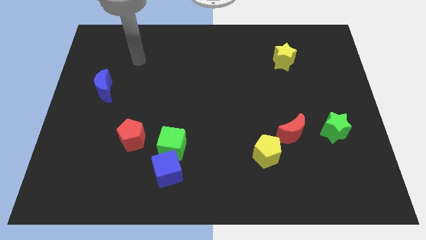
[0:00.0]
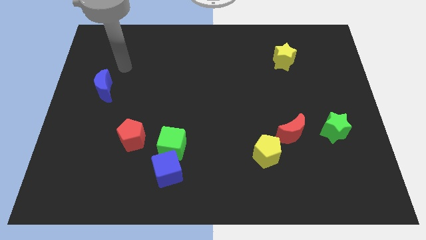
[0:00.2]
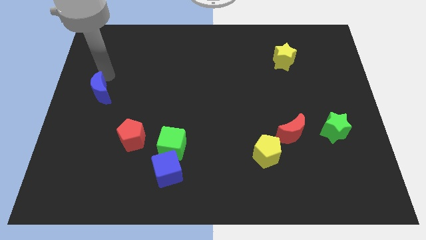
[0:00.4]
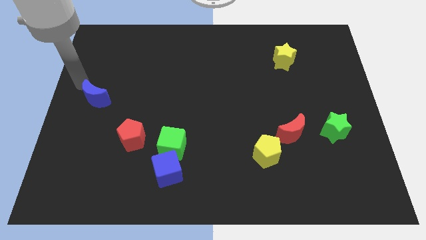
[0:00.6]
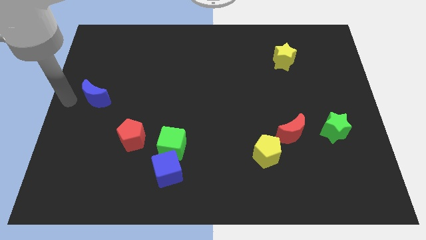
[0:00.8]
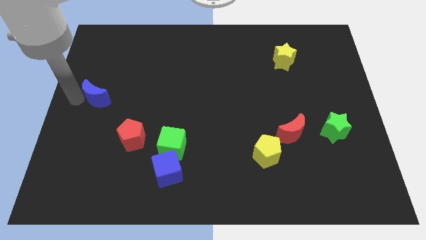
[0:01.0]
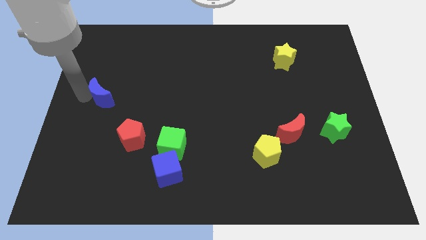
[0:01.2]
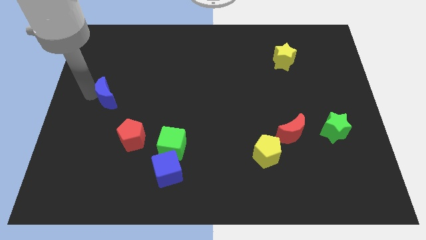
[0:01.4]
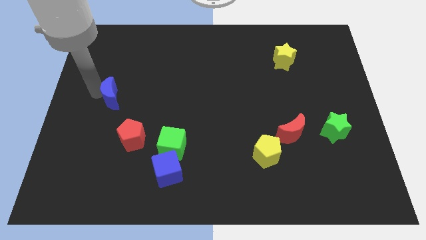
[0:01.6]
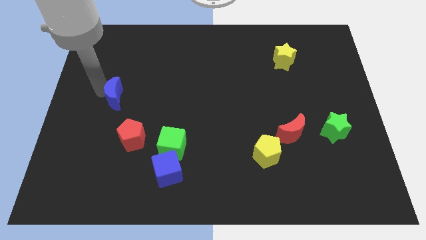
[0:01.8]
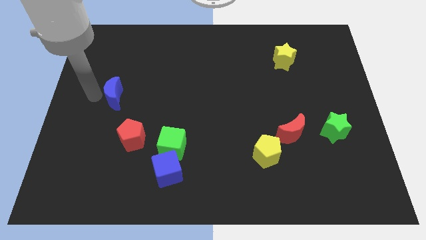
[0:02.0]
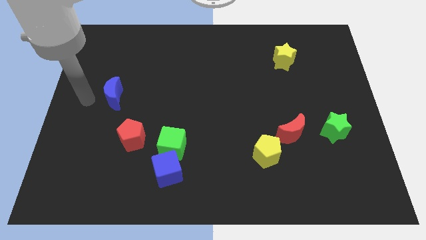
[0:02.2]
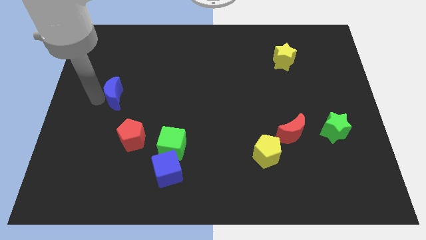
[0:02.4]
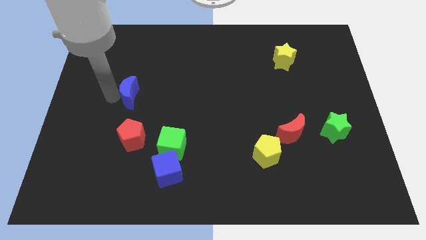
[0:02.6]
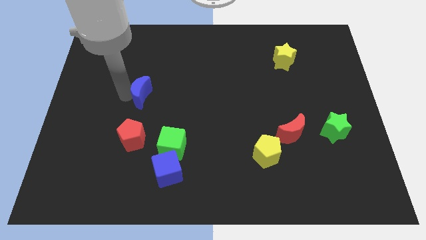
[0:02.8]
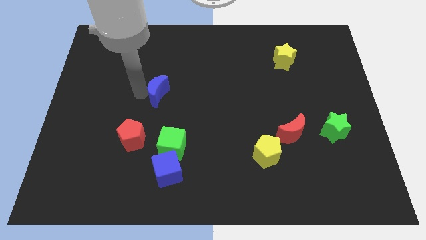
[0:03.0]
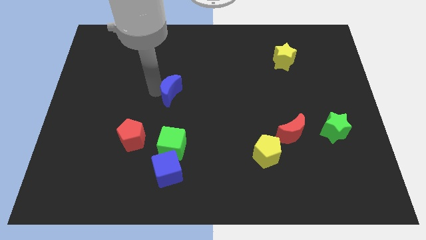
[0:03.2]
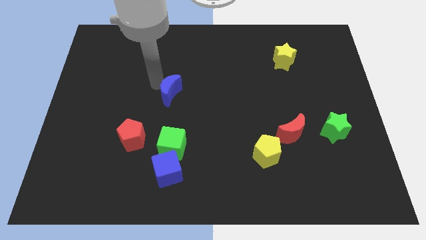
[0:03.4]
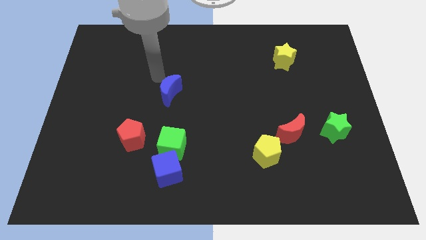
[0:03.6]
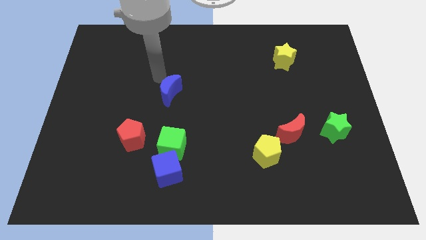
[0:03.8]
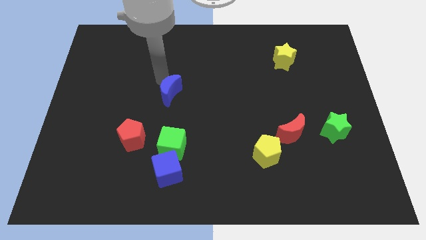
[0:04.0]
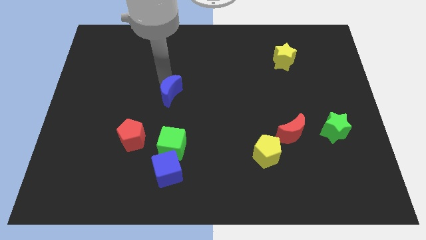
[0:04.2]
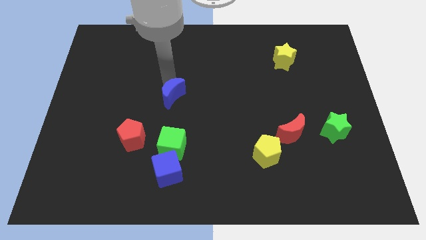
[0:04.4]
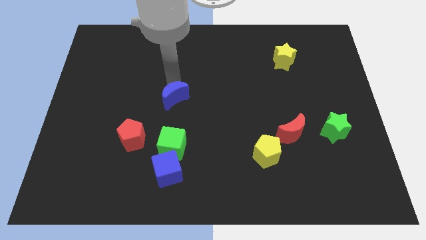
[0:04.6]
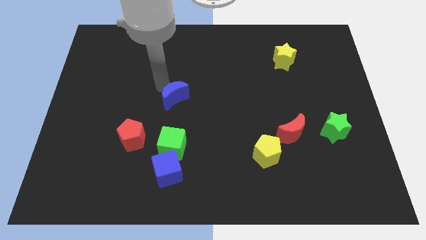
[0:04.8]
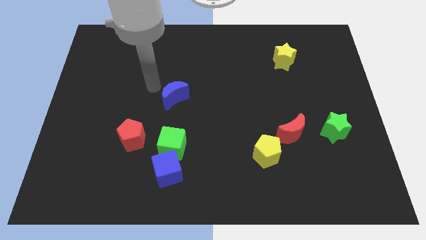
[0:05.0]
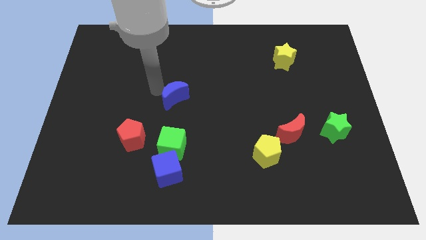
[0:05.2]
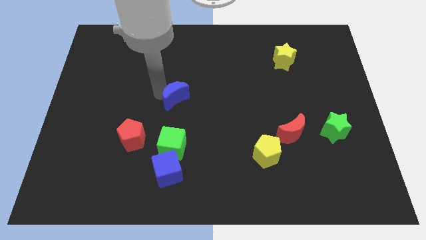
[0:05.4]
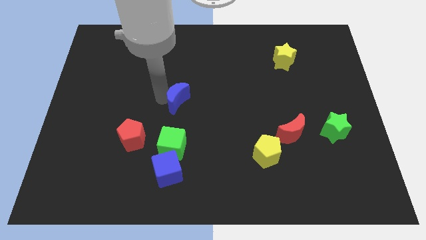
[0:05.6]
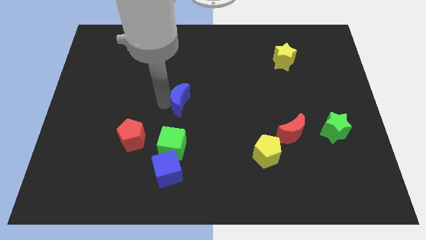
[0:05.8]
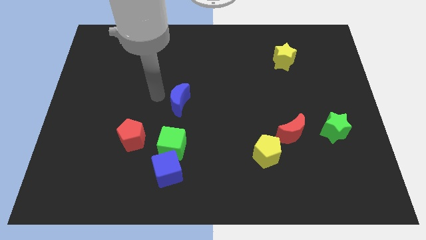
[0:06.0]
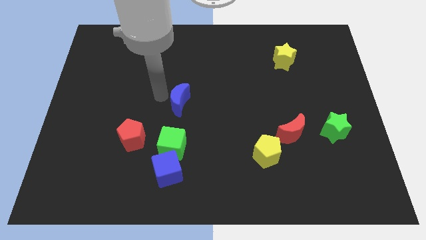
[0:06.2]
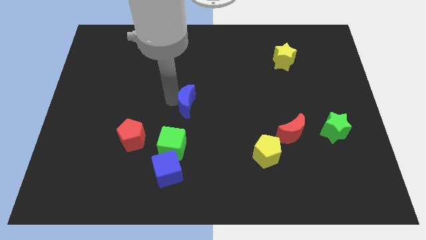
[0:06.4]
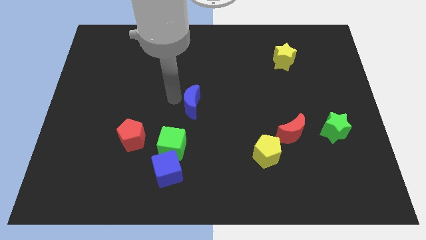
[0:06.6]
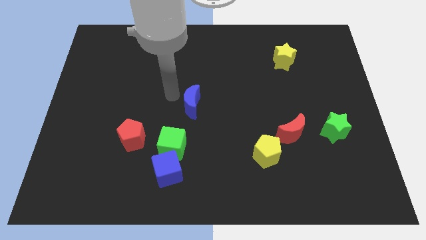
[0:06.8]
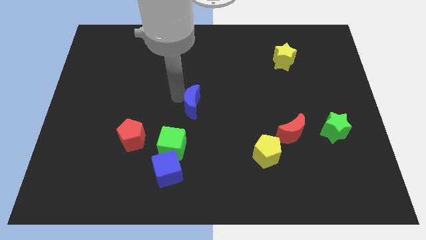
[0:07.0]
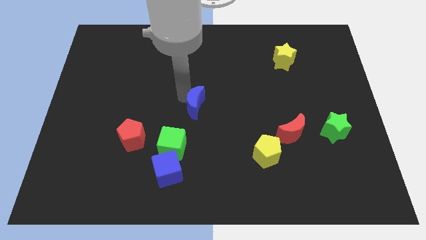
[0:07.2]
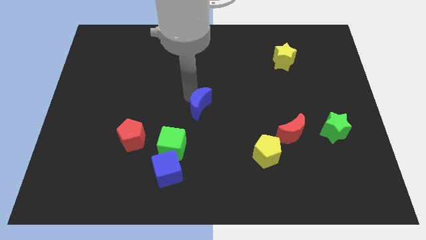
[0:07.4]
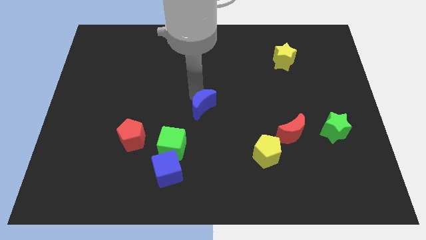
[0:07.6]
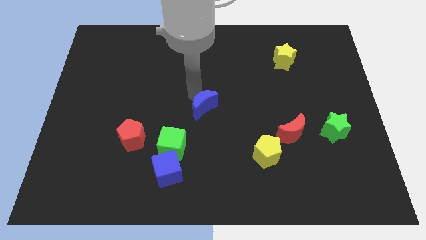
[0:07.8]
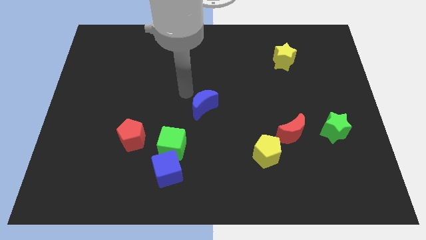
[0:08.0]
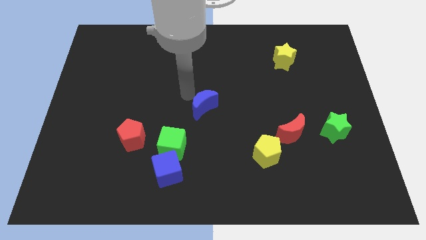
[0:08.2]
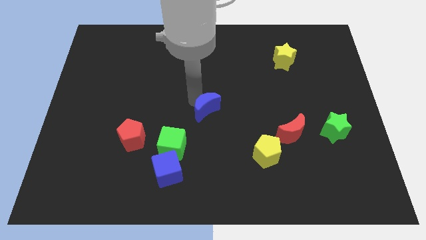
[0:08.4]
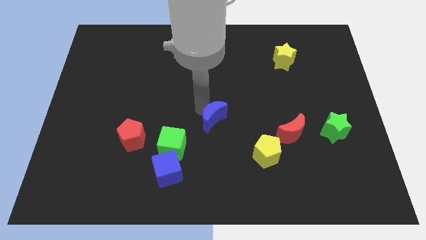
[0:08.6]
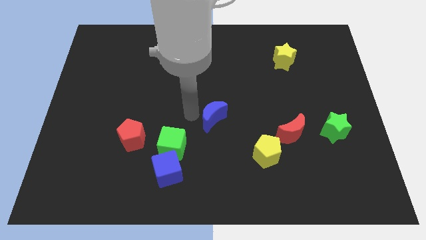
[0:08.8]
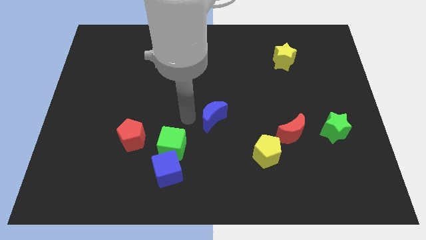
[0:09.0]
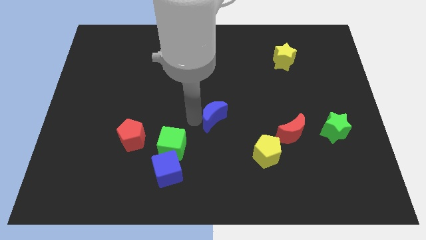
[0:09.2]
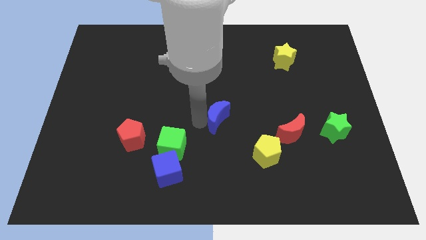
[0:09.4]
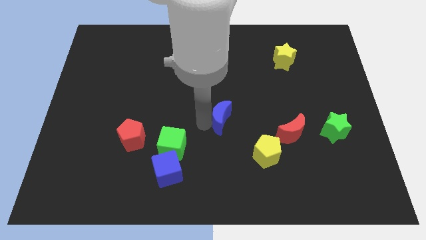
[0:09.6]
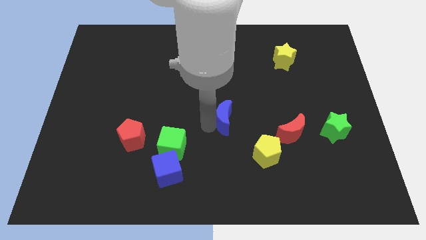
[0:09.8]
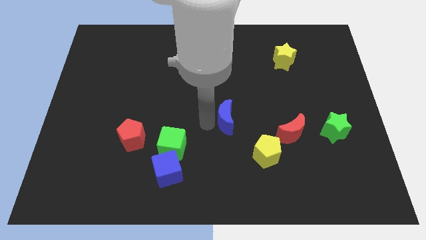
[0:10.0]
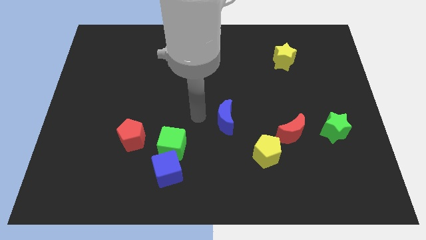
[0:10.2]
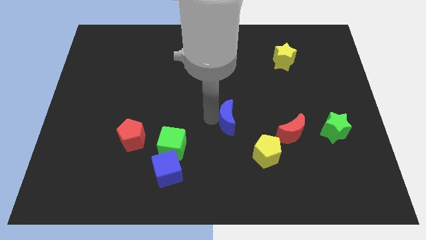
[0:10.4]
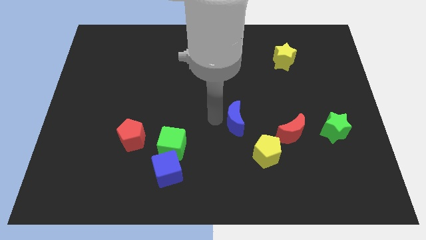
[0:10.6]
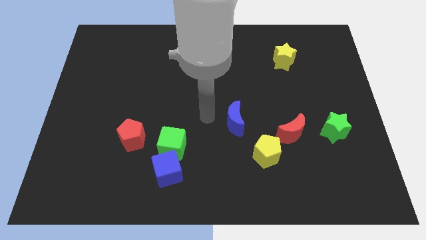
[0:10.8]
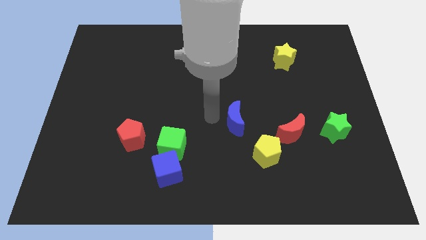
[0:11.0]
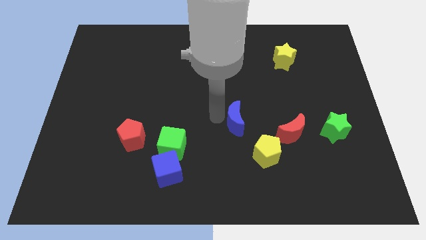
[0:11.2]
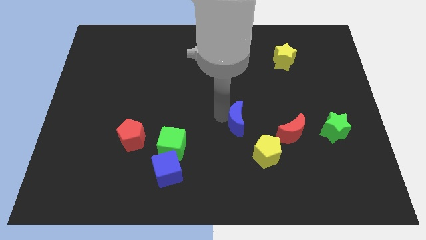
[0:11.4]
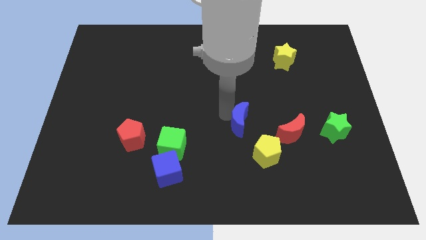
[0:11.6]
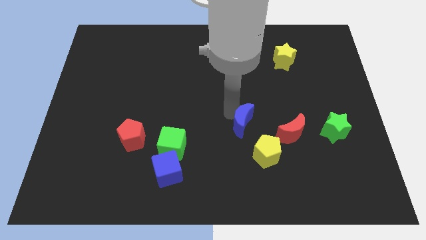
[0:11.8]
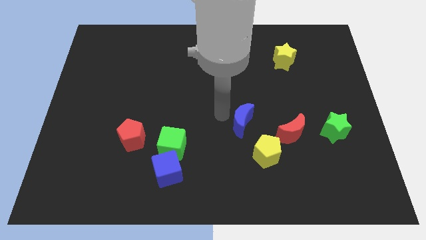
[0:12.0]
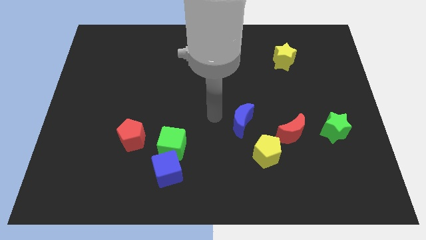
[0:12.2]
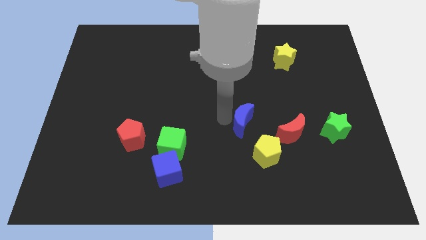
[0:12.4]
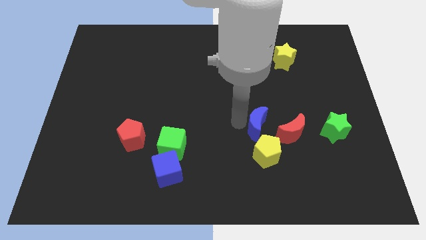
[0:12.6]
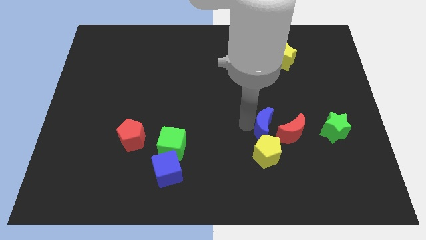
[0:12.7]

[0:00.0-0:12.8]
move the blue moon to the left side of the green star

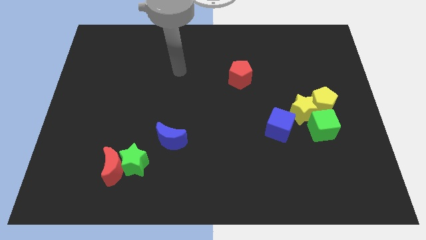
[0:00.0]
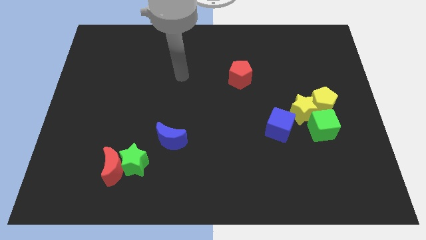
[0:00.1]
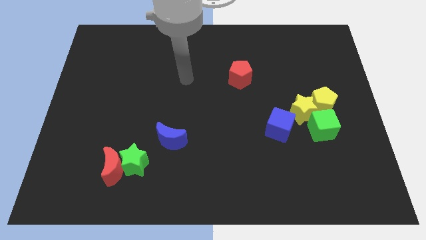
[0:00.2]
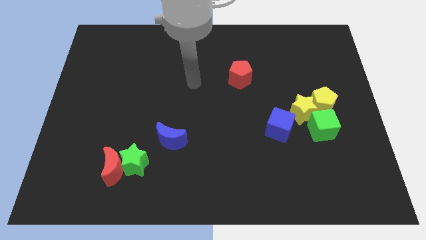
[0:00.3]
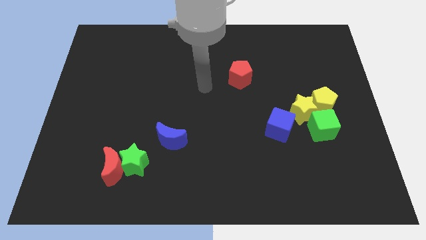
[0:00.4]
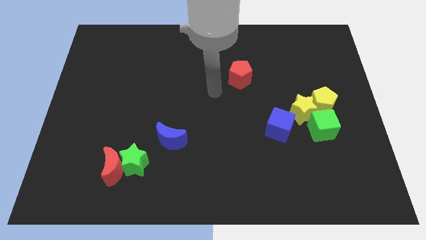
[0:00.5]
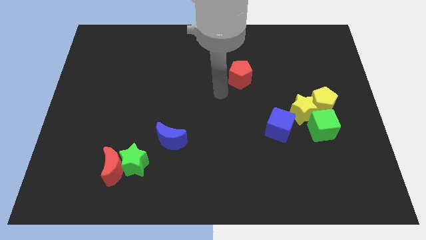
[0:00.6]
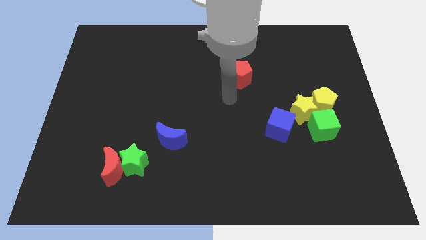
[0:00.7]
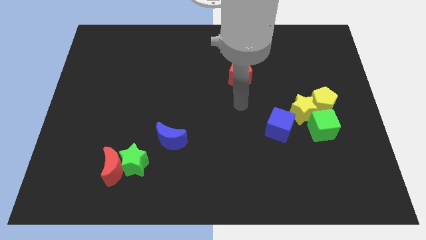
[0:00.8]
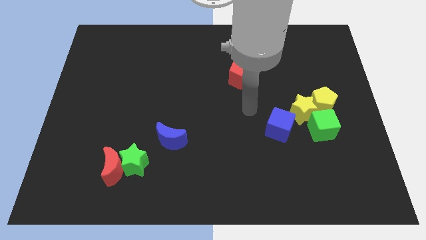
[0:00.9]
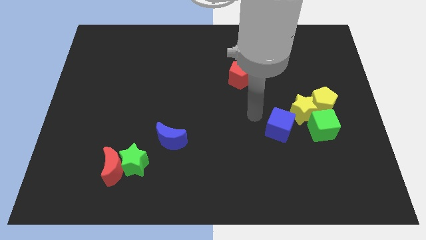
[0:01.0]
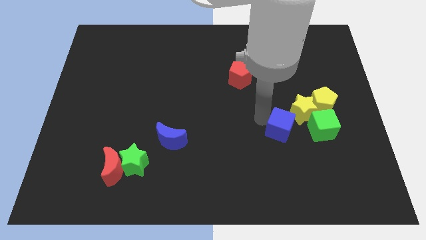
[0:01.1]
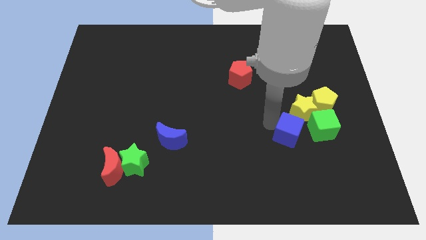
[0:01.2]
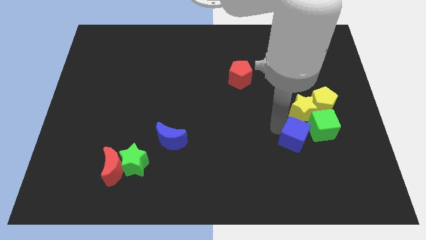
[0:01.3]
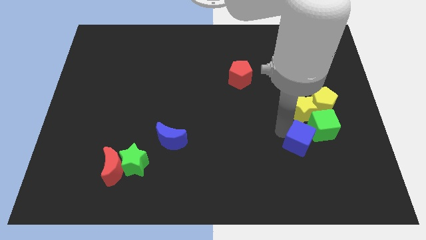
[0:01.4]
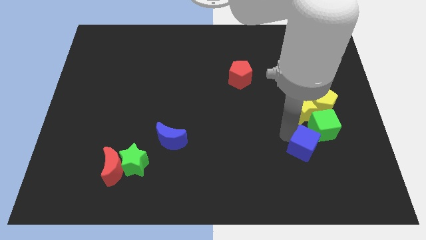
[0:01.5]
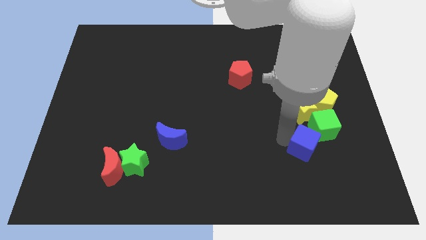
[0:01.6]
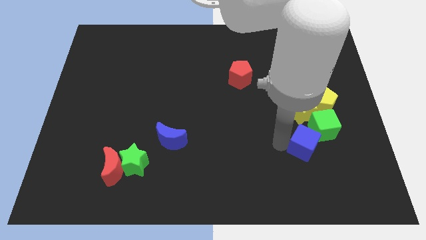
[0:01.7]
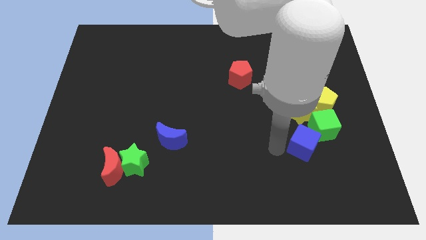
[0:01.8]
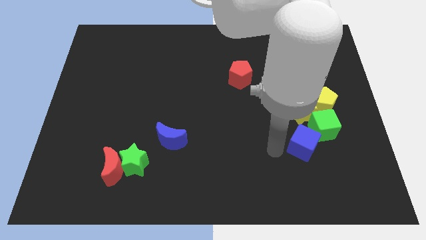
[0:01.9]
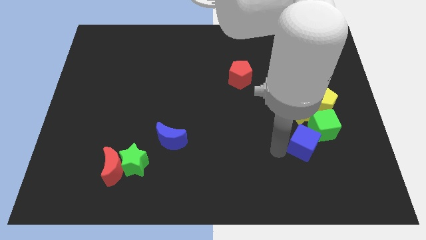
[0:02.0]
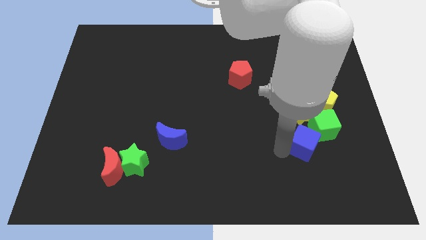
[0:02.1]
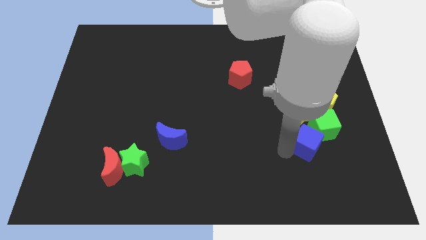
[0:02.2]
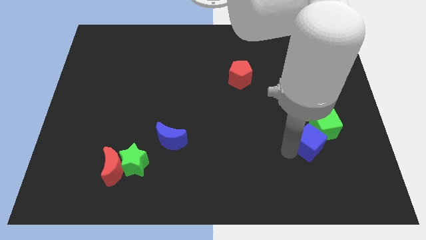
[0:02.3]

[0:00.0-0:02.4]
move the blue cube below the yellow pentagon
